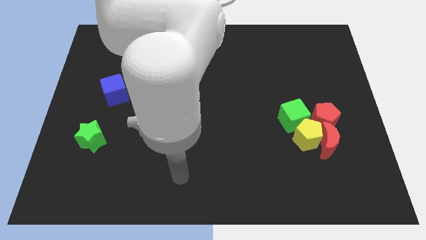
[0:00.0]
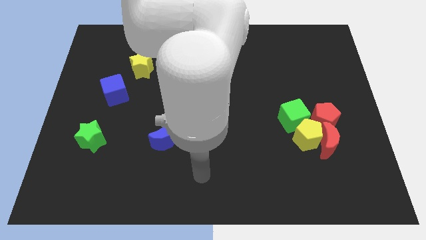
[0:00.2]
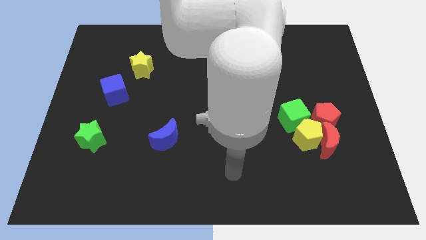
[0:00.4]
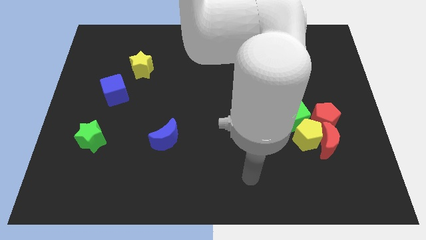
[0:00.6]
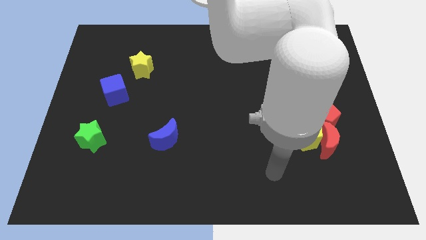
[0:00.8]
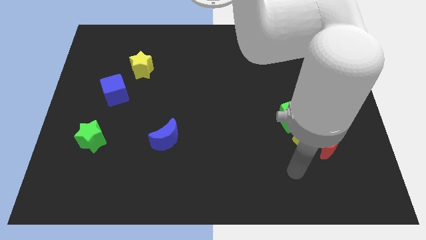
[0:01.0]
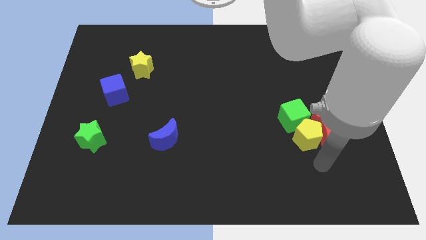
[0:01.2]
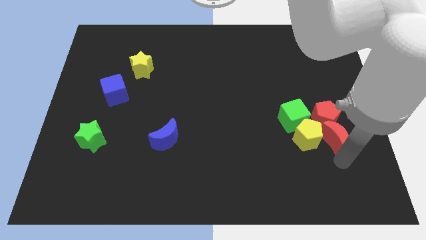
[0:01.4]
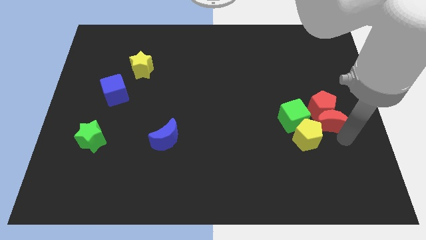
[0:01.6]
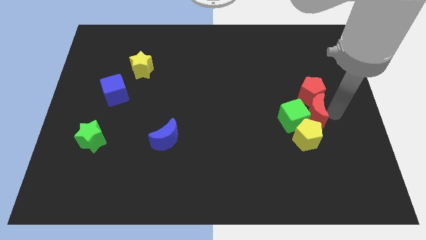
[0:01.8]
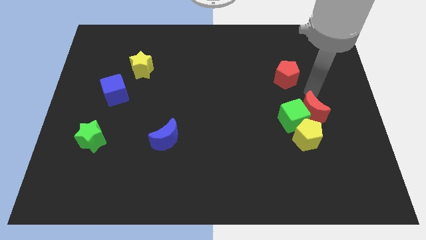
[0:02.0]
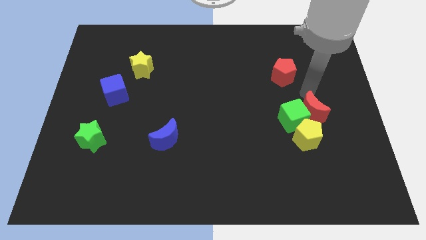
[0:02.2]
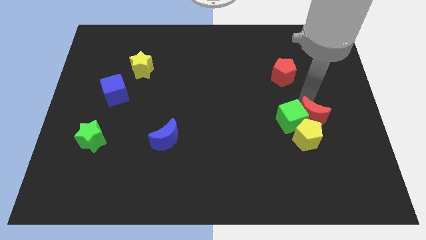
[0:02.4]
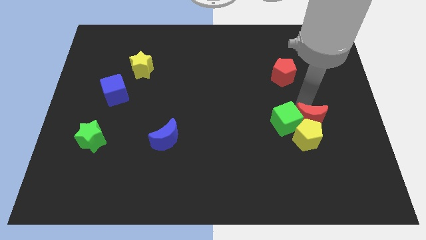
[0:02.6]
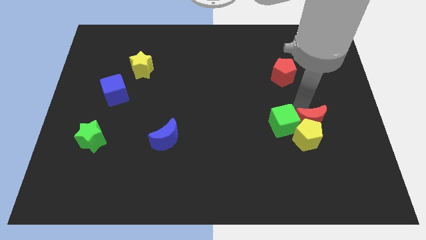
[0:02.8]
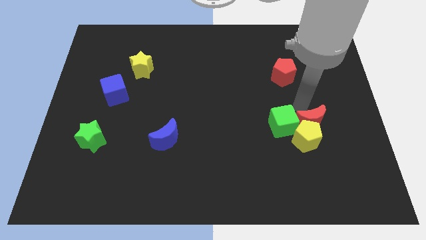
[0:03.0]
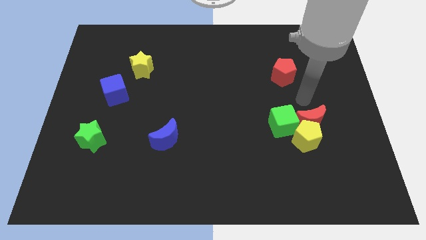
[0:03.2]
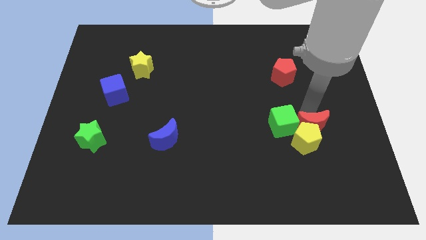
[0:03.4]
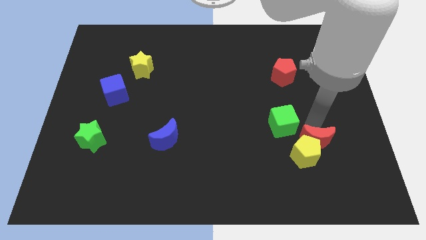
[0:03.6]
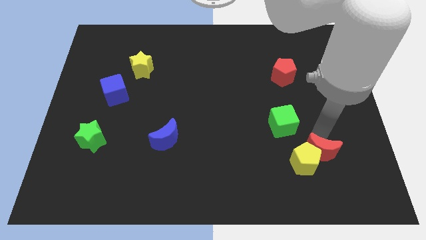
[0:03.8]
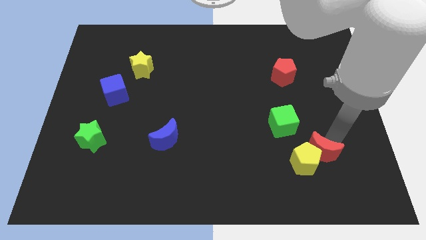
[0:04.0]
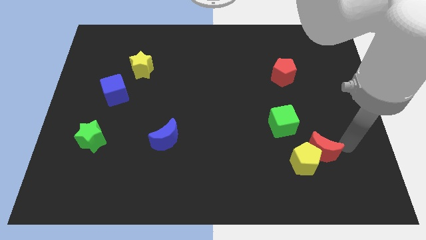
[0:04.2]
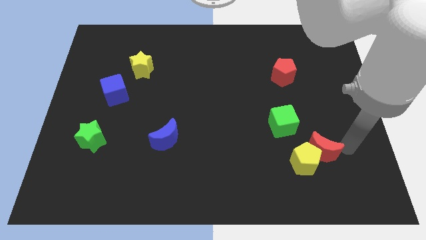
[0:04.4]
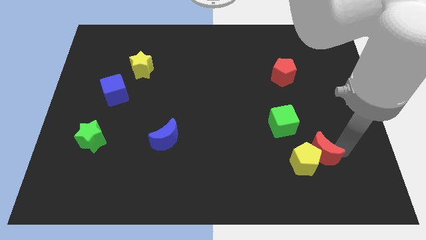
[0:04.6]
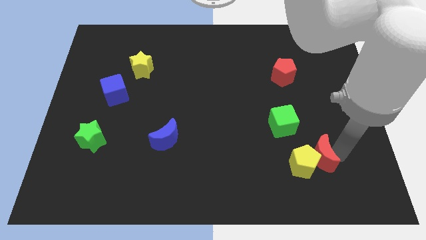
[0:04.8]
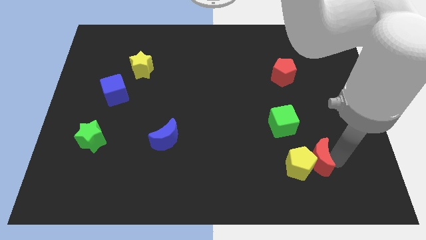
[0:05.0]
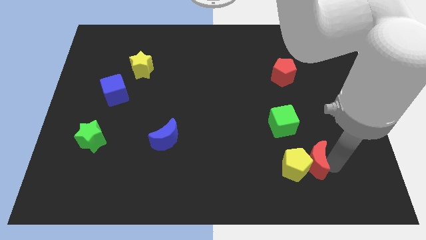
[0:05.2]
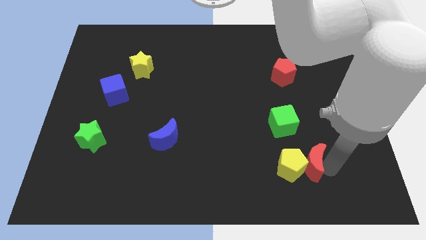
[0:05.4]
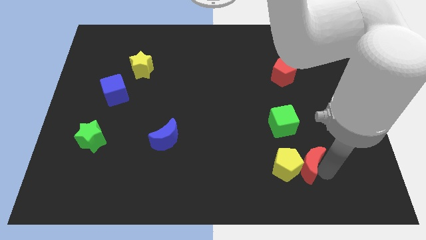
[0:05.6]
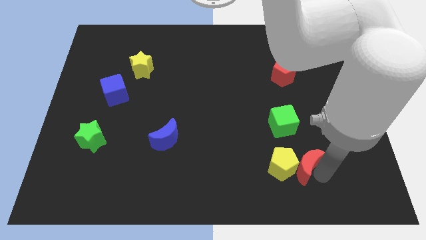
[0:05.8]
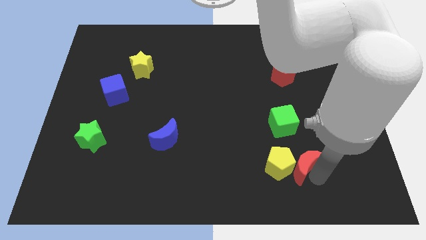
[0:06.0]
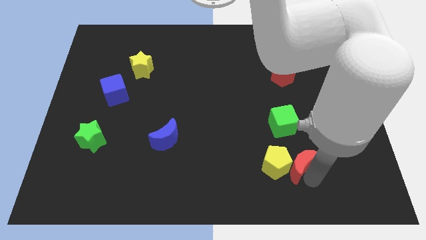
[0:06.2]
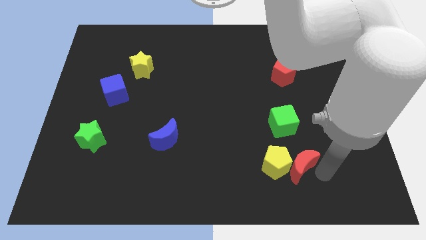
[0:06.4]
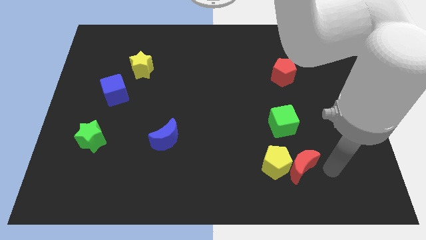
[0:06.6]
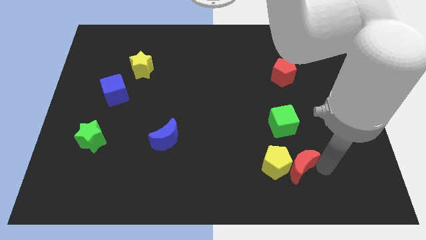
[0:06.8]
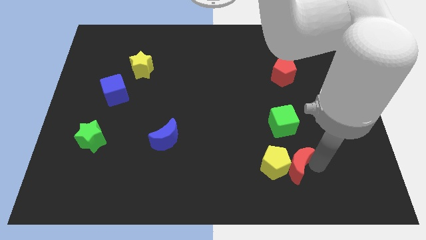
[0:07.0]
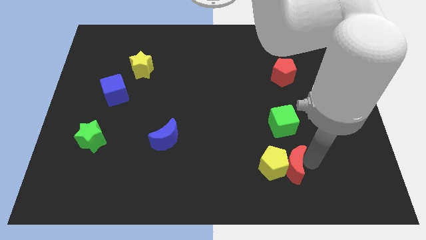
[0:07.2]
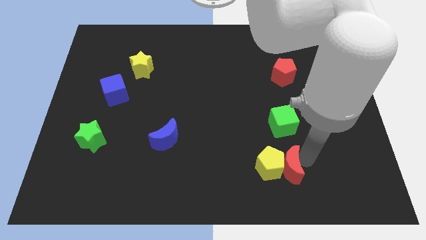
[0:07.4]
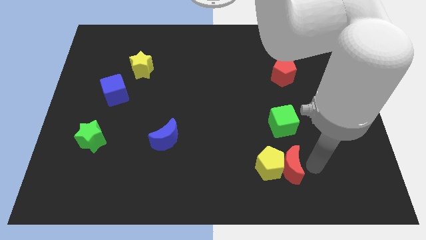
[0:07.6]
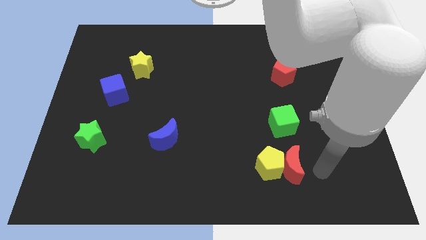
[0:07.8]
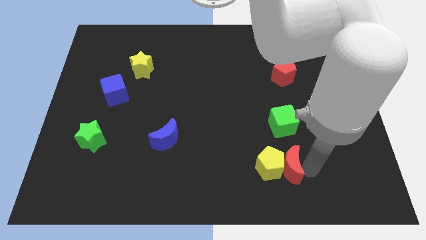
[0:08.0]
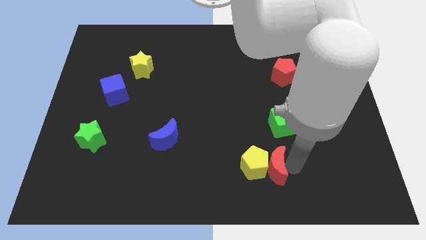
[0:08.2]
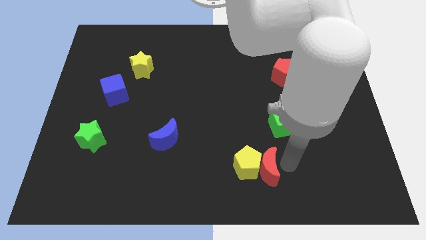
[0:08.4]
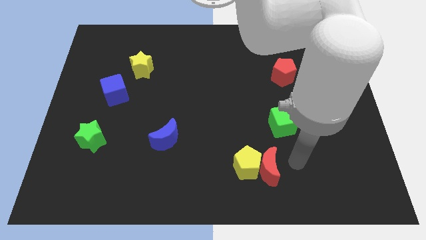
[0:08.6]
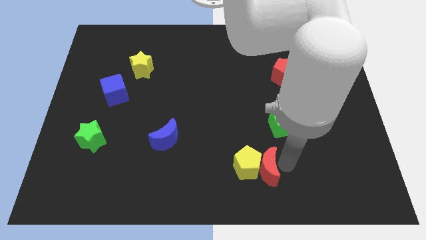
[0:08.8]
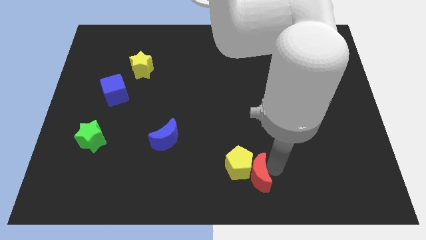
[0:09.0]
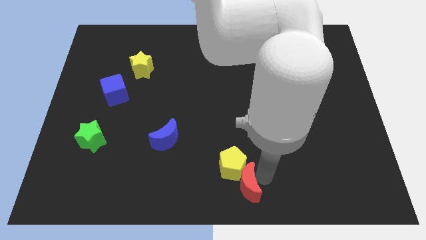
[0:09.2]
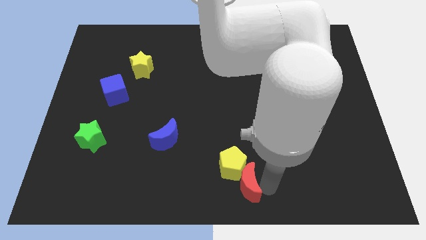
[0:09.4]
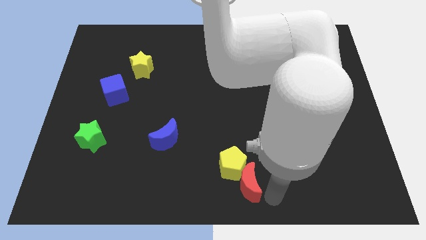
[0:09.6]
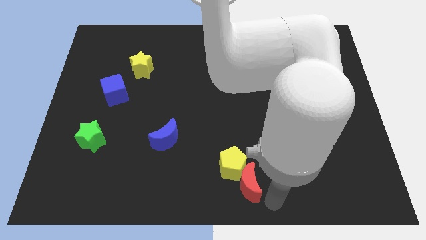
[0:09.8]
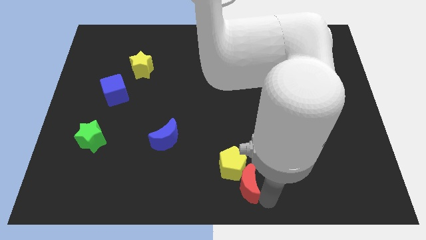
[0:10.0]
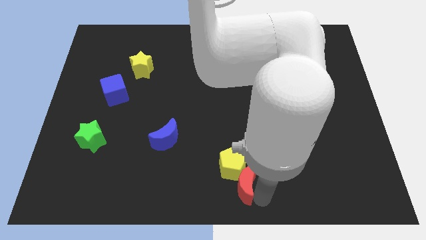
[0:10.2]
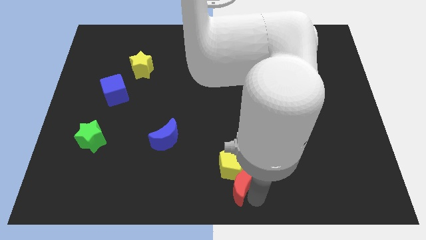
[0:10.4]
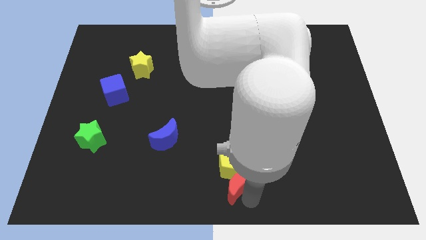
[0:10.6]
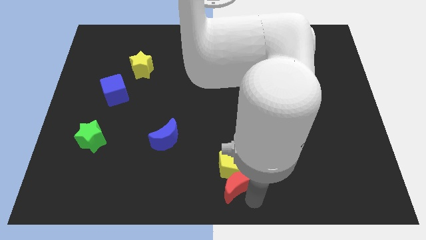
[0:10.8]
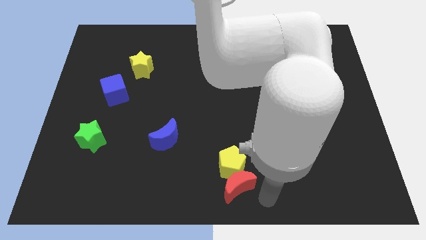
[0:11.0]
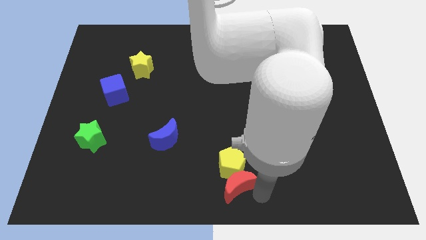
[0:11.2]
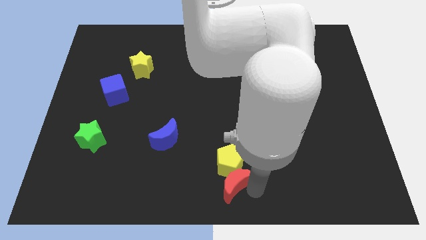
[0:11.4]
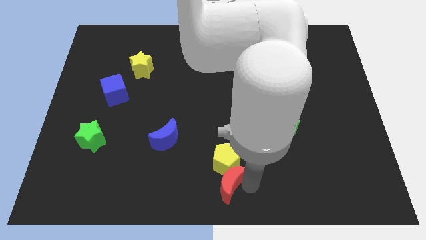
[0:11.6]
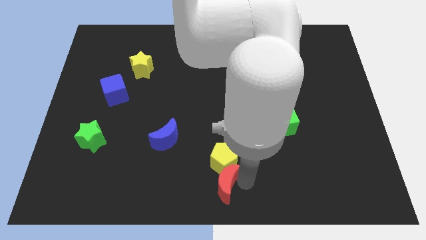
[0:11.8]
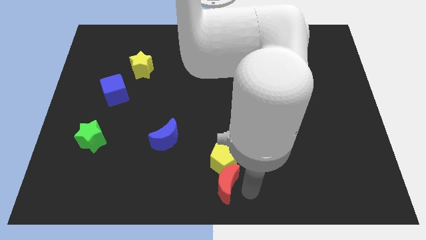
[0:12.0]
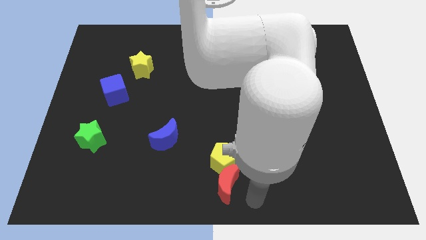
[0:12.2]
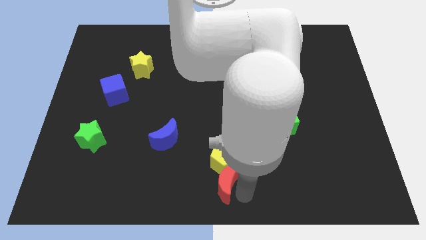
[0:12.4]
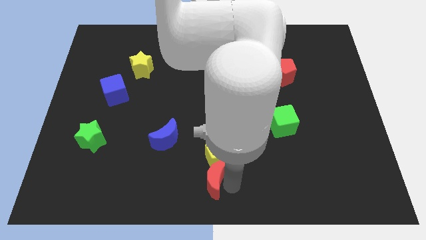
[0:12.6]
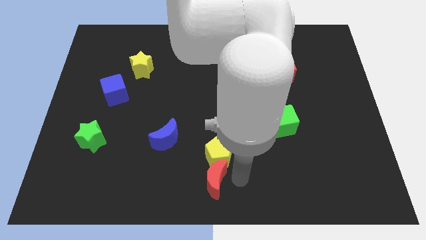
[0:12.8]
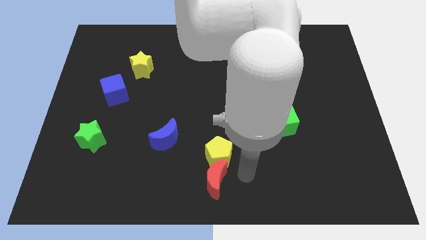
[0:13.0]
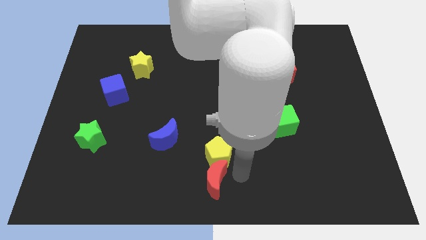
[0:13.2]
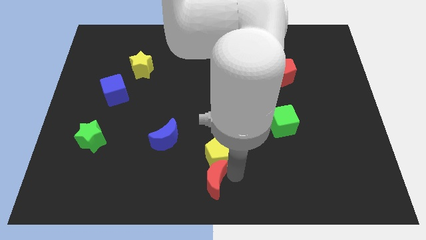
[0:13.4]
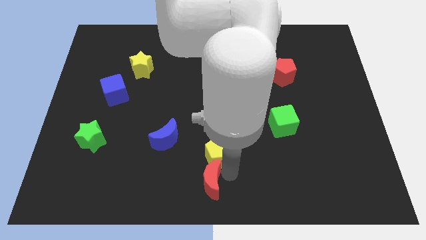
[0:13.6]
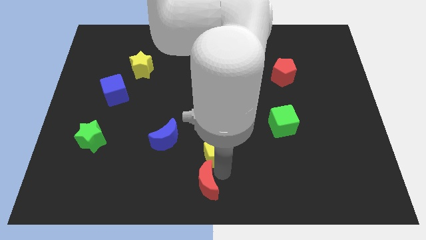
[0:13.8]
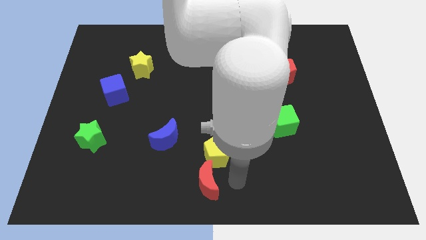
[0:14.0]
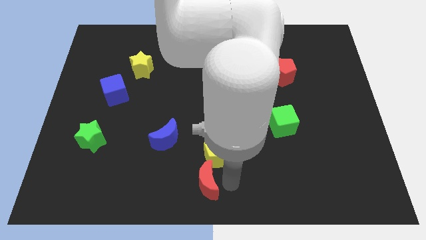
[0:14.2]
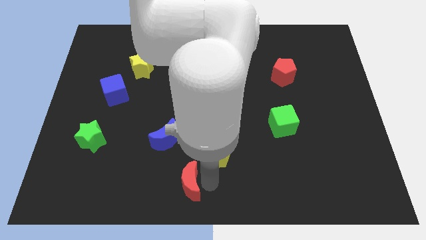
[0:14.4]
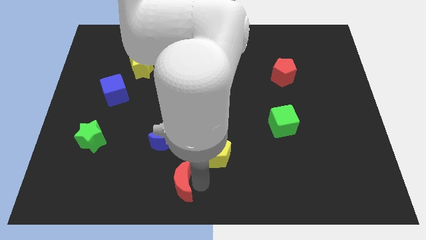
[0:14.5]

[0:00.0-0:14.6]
push the red moon below the blue moon
